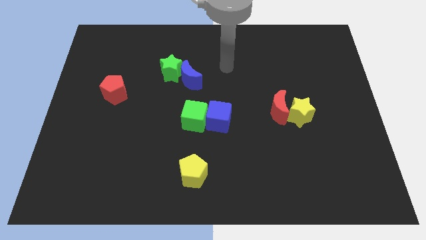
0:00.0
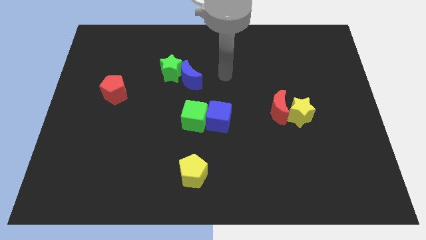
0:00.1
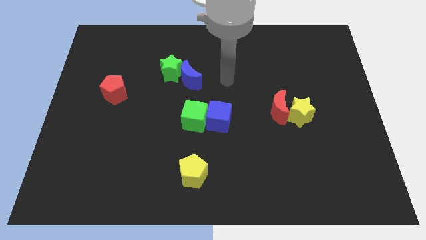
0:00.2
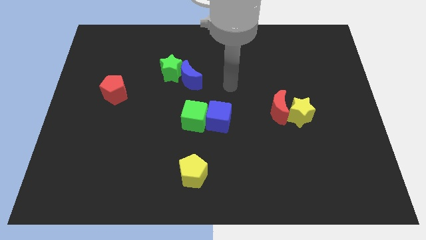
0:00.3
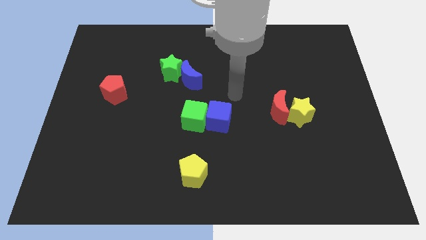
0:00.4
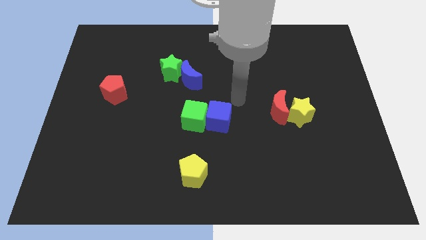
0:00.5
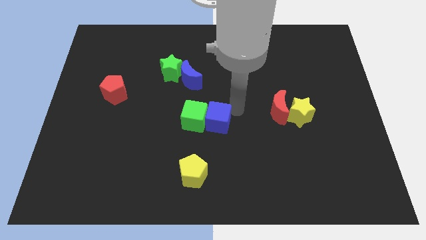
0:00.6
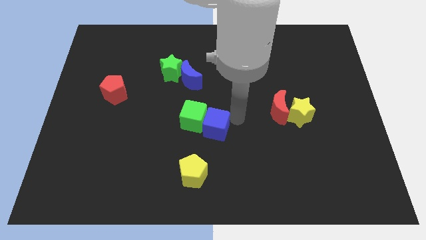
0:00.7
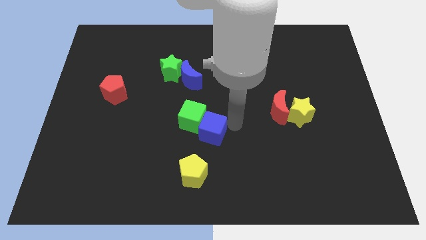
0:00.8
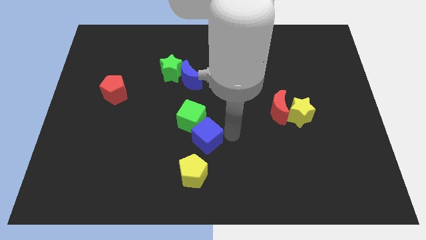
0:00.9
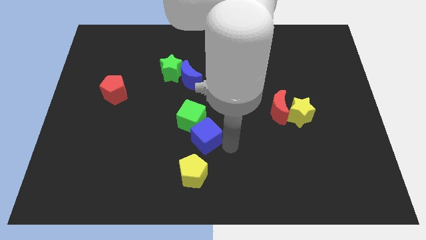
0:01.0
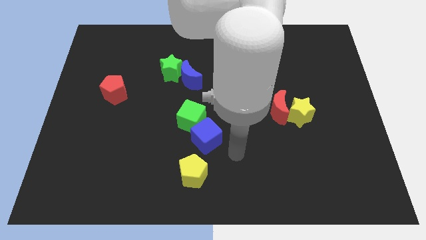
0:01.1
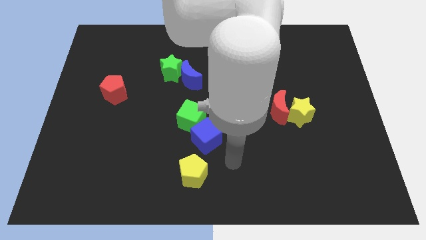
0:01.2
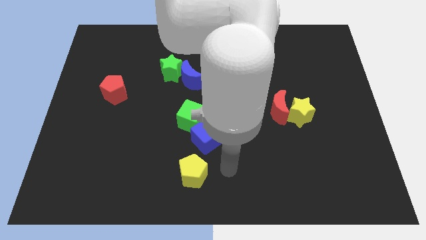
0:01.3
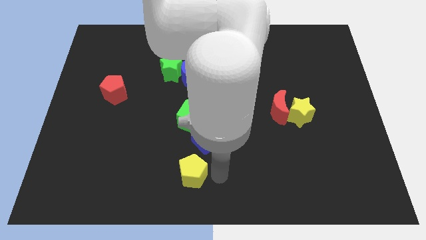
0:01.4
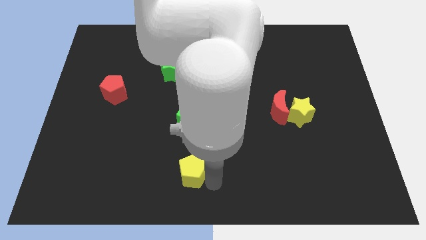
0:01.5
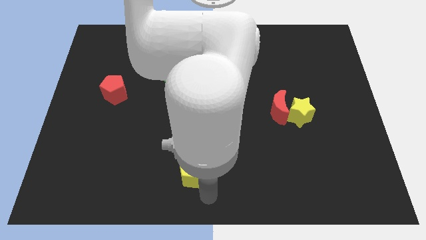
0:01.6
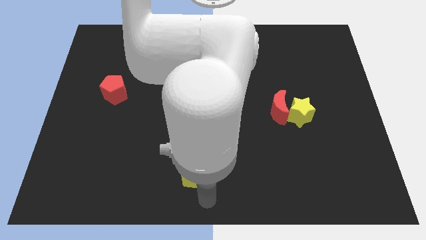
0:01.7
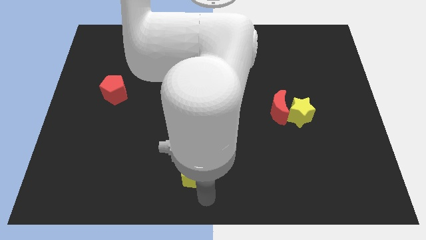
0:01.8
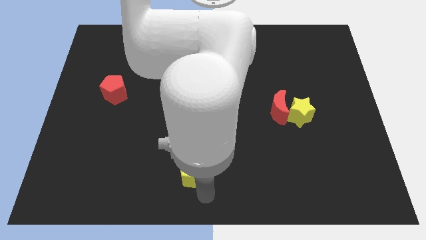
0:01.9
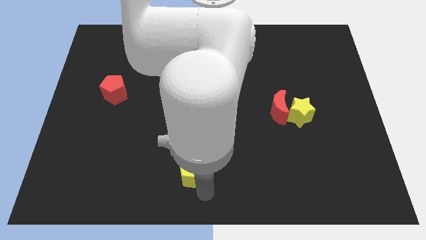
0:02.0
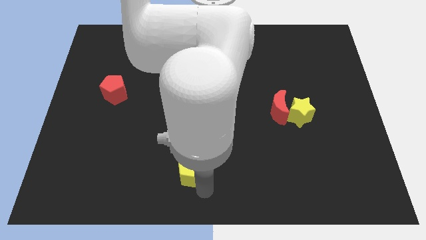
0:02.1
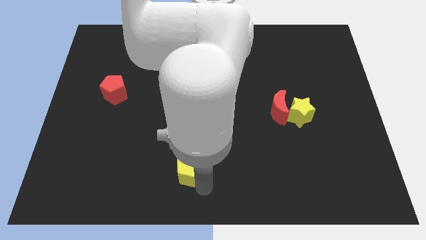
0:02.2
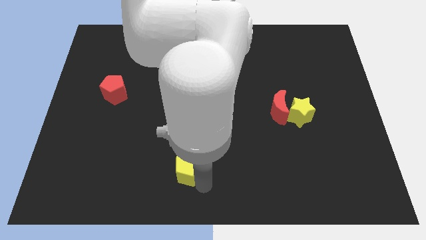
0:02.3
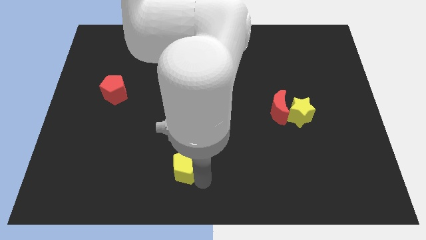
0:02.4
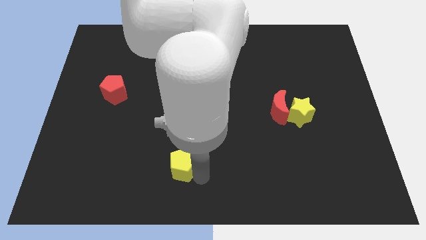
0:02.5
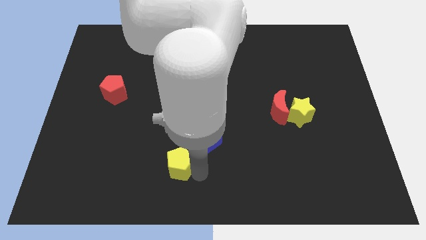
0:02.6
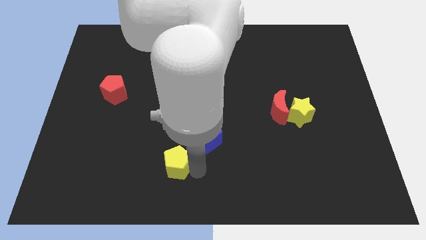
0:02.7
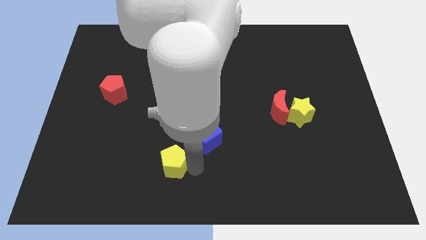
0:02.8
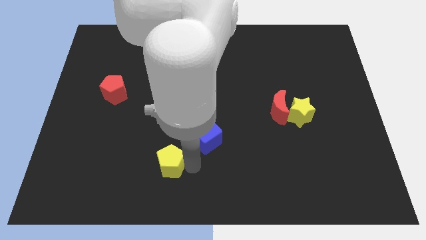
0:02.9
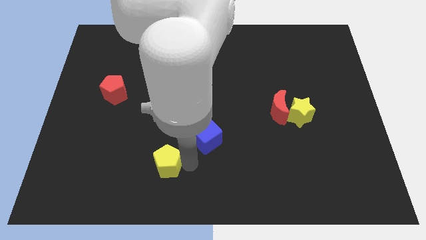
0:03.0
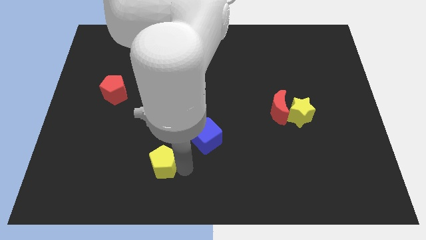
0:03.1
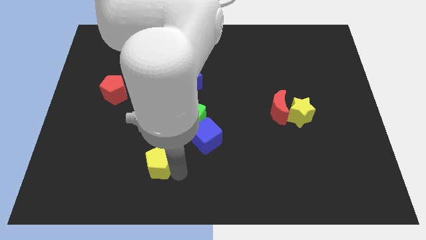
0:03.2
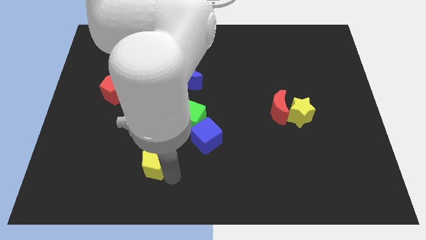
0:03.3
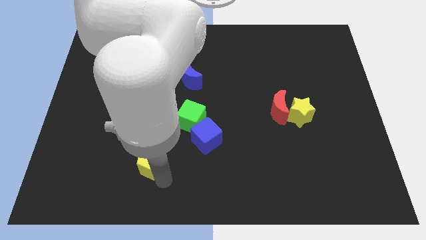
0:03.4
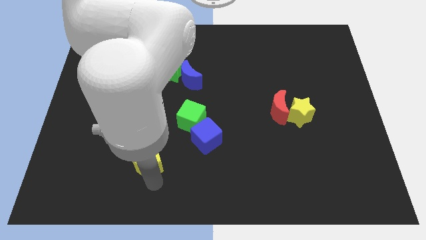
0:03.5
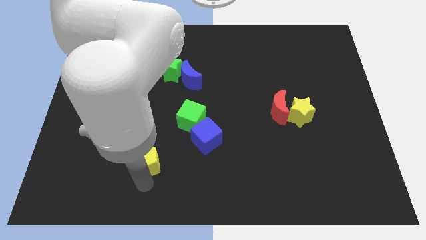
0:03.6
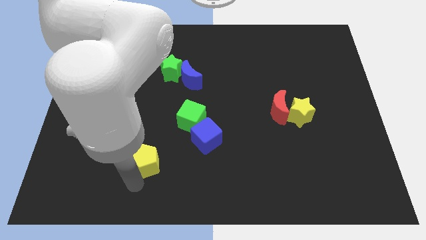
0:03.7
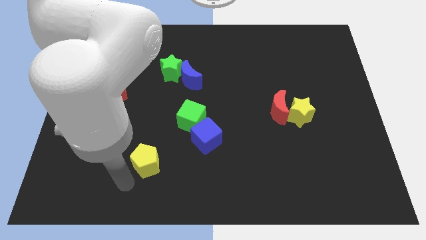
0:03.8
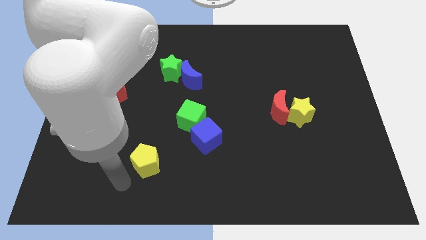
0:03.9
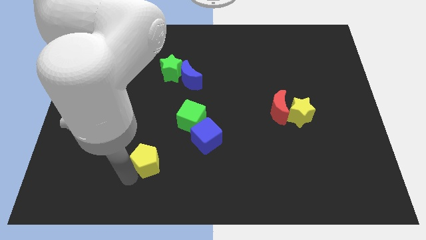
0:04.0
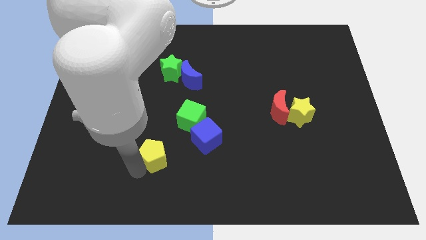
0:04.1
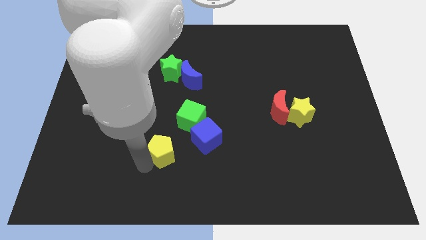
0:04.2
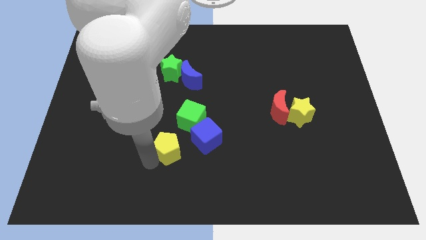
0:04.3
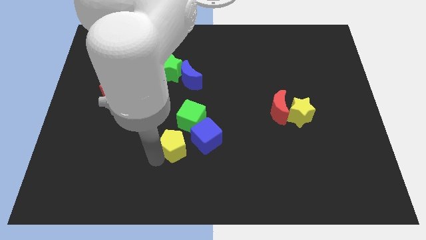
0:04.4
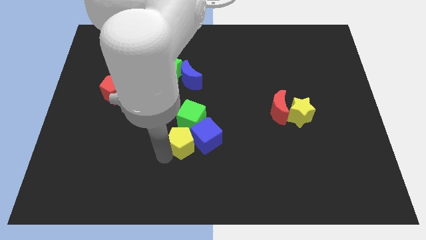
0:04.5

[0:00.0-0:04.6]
push the yellow pentagon up slightly

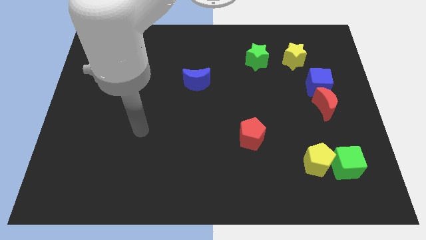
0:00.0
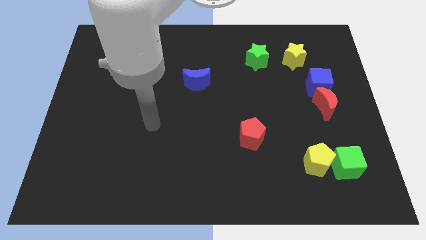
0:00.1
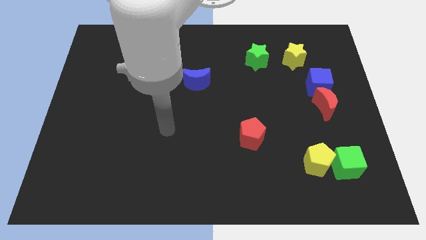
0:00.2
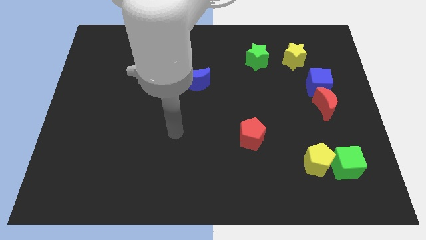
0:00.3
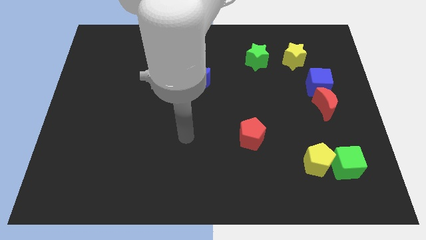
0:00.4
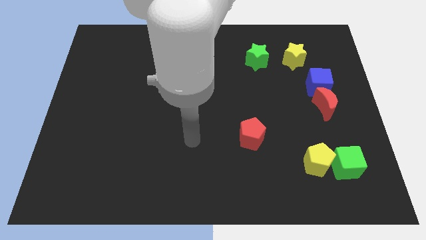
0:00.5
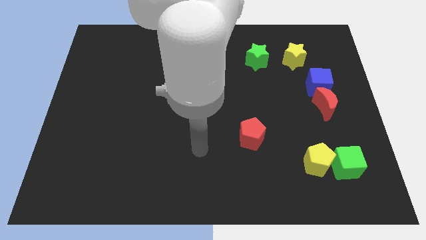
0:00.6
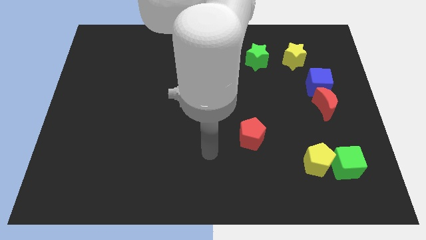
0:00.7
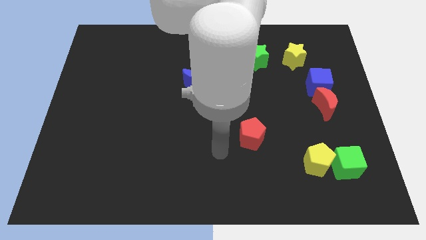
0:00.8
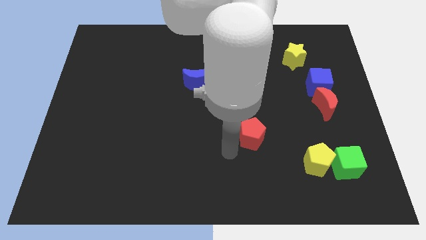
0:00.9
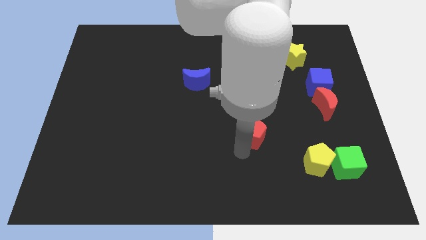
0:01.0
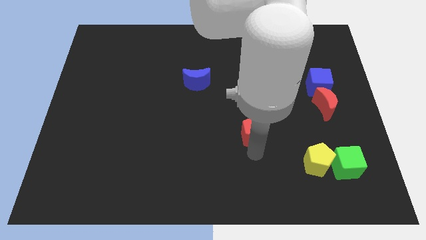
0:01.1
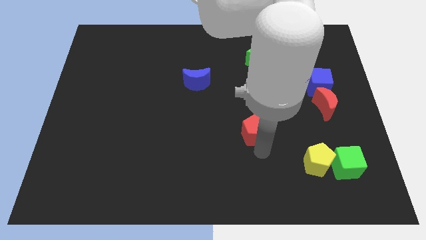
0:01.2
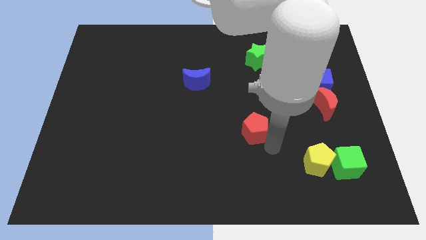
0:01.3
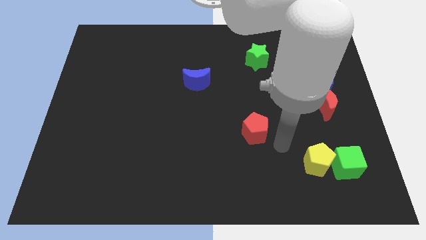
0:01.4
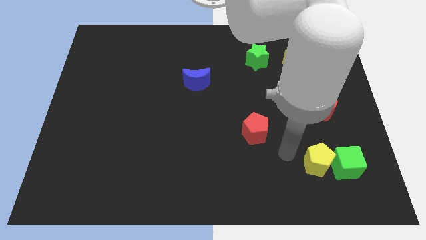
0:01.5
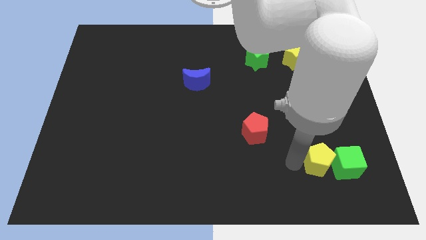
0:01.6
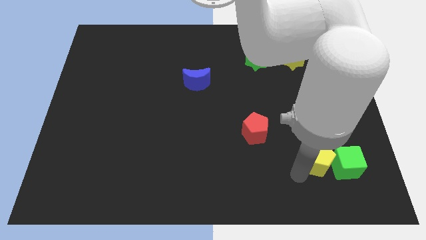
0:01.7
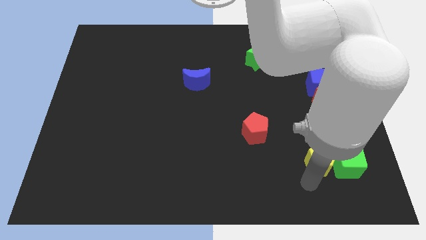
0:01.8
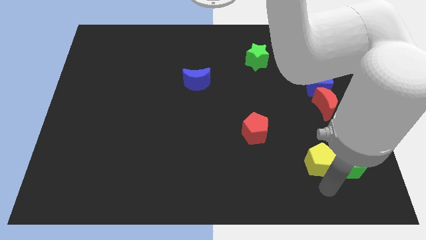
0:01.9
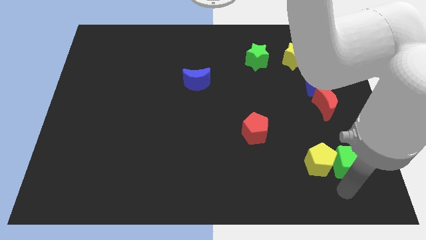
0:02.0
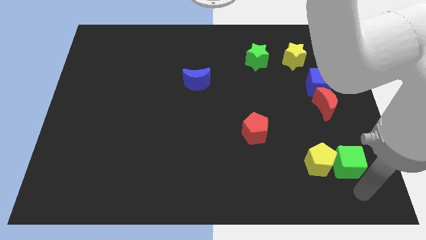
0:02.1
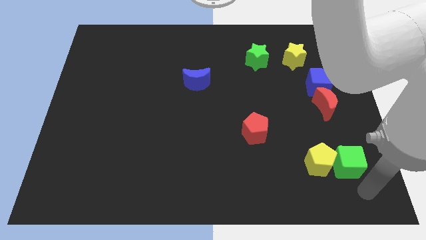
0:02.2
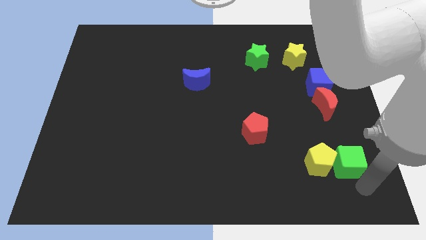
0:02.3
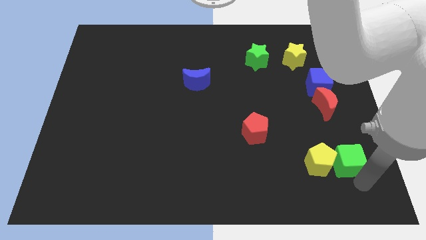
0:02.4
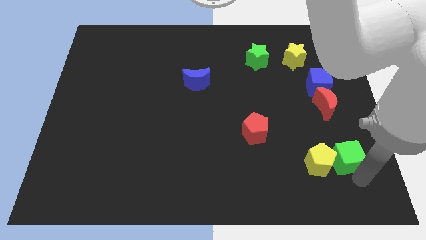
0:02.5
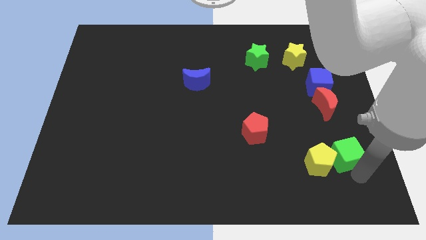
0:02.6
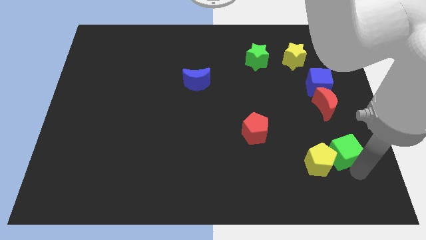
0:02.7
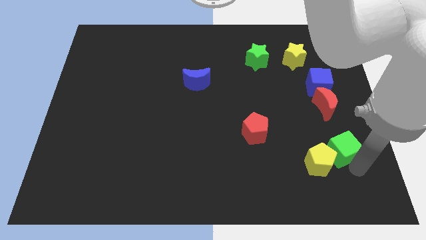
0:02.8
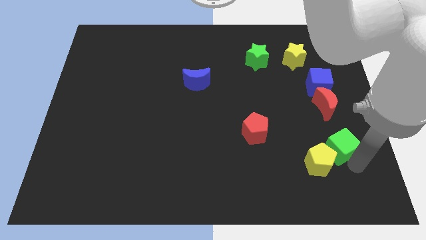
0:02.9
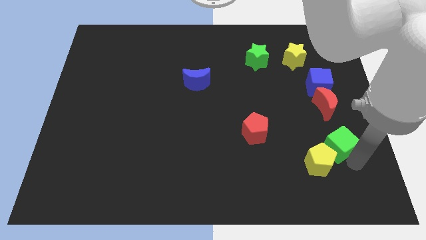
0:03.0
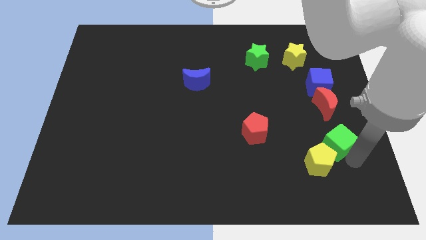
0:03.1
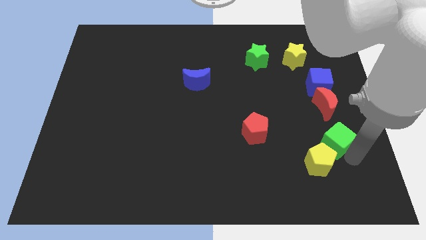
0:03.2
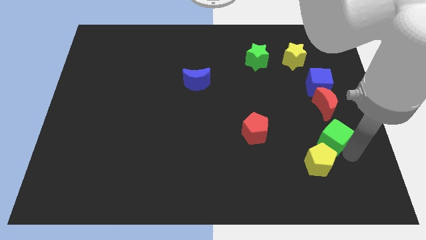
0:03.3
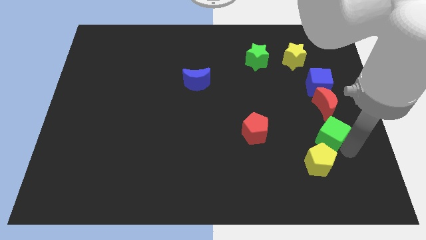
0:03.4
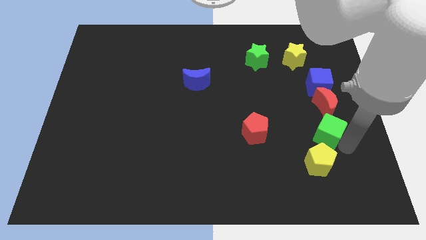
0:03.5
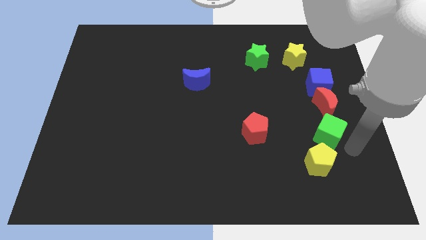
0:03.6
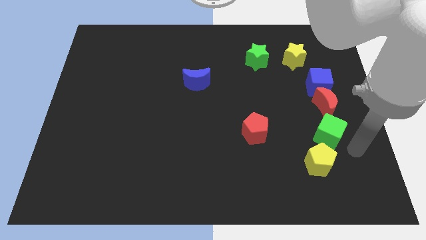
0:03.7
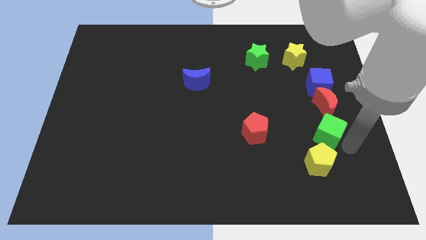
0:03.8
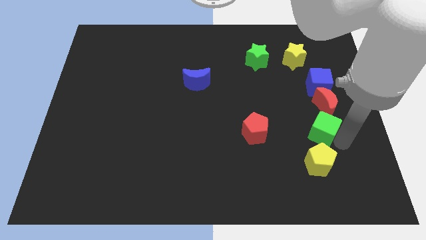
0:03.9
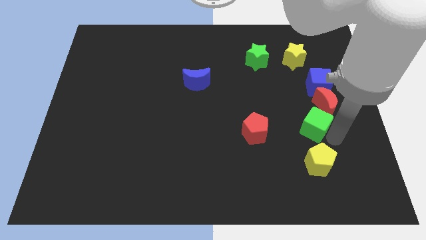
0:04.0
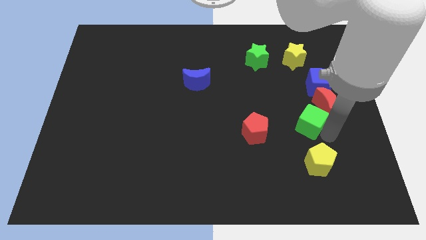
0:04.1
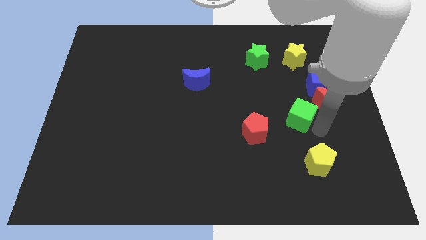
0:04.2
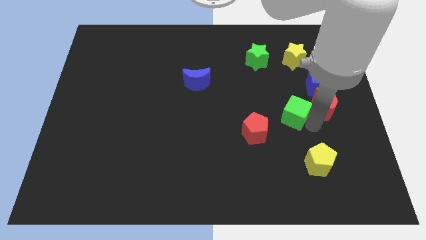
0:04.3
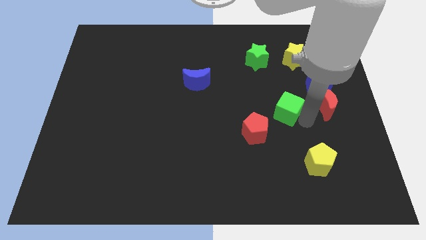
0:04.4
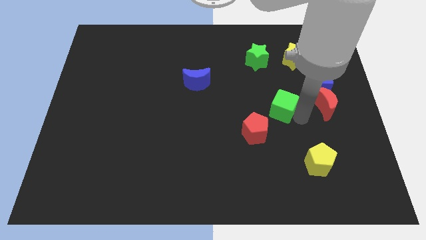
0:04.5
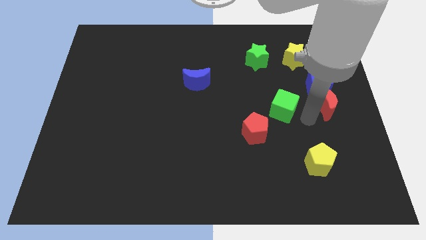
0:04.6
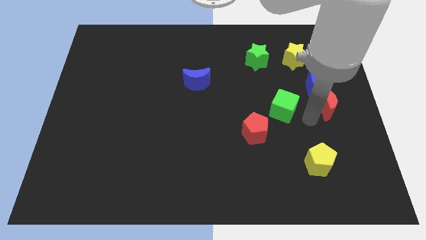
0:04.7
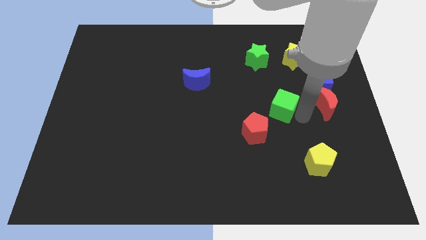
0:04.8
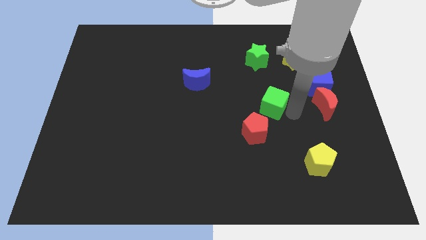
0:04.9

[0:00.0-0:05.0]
push the green cube diagonally upwards and to the left
